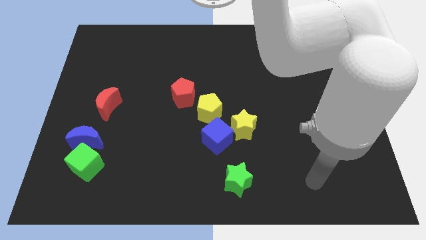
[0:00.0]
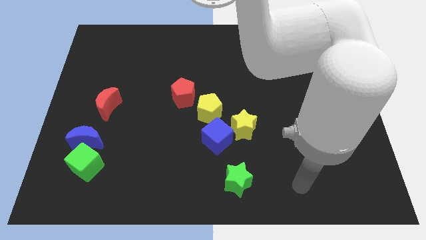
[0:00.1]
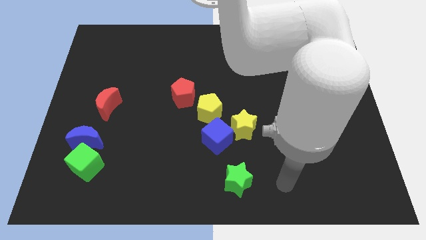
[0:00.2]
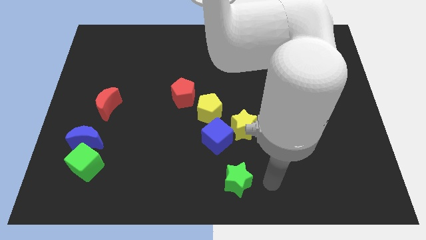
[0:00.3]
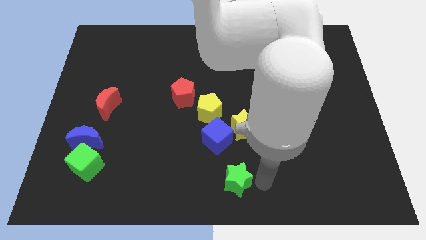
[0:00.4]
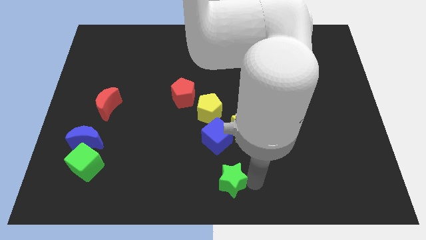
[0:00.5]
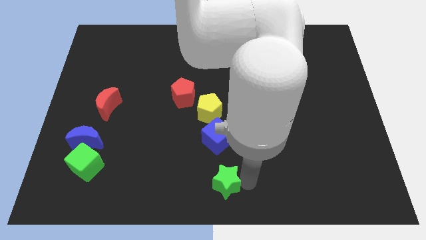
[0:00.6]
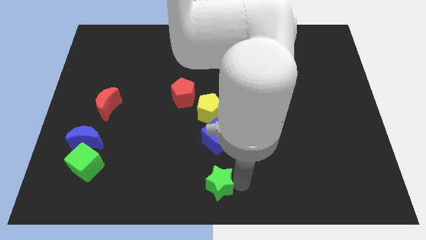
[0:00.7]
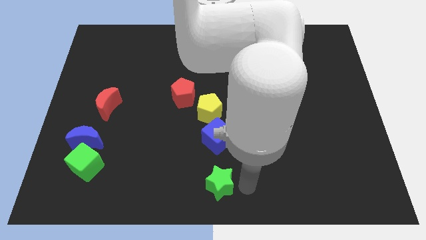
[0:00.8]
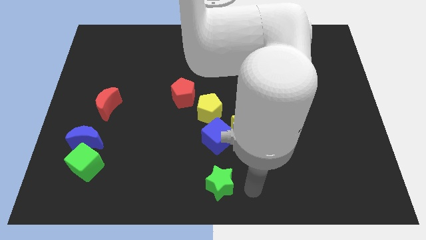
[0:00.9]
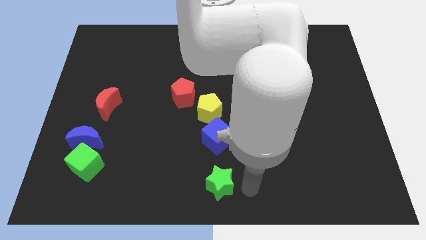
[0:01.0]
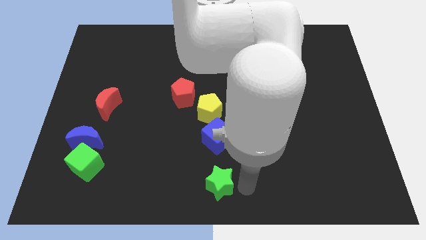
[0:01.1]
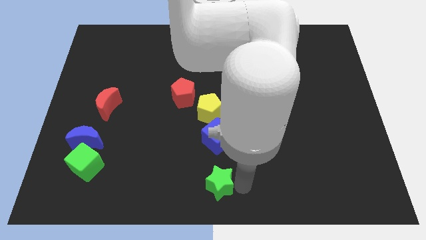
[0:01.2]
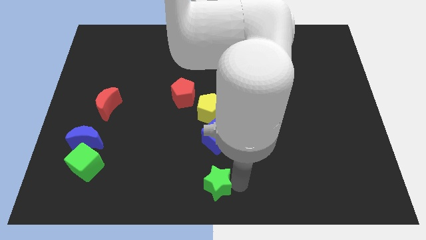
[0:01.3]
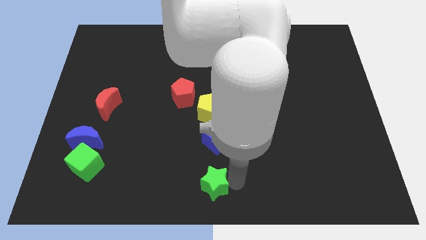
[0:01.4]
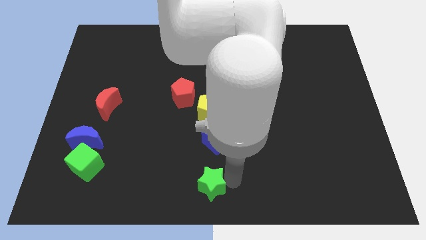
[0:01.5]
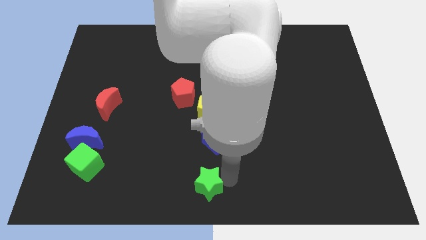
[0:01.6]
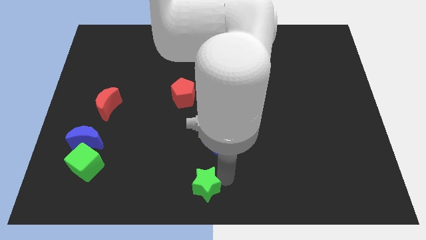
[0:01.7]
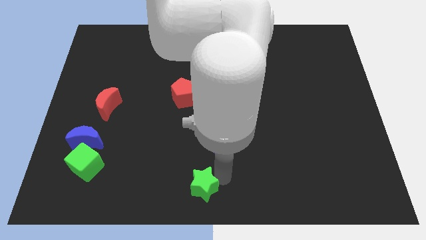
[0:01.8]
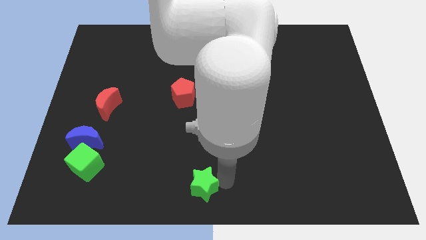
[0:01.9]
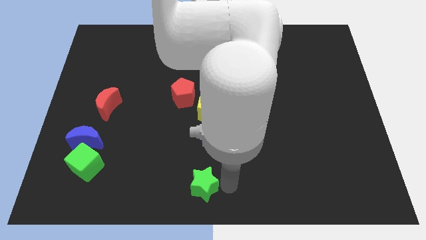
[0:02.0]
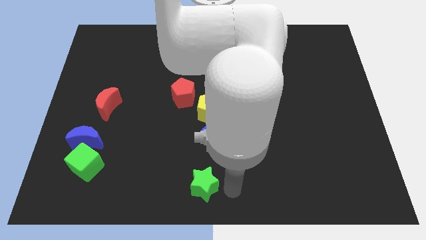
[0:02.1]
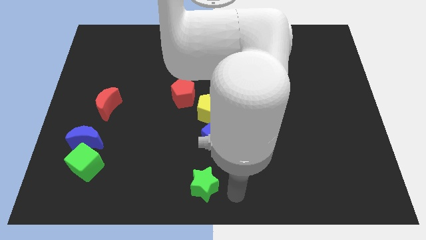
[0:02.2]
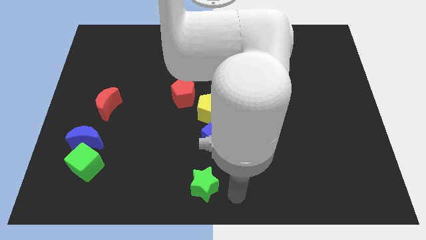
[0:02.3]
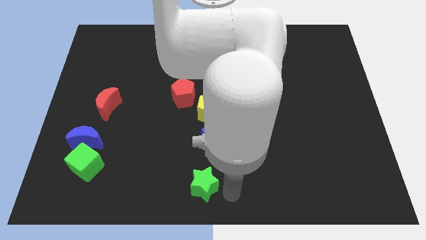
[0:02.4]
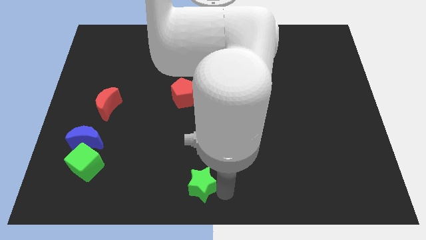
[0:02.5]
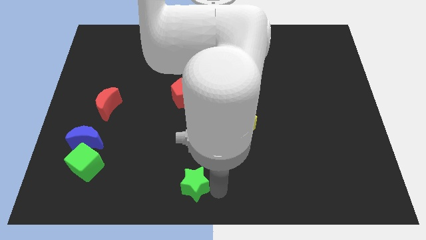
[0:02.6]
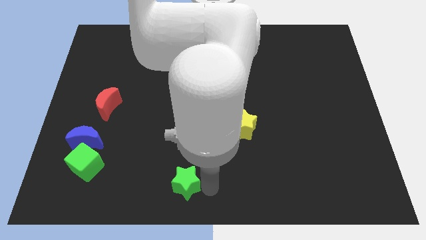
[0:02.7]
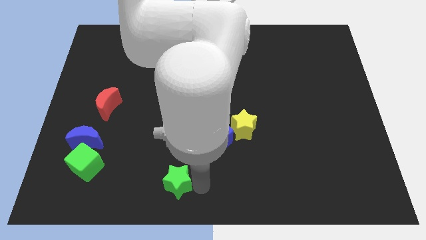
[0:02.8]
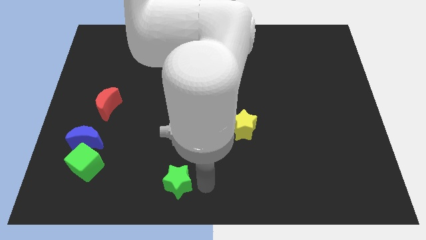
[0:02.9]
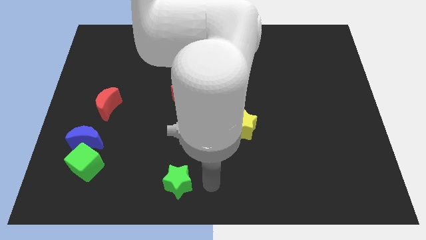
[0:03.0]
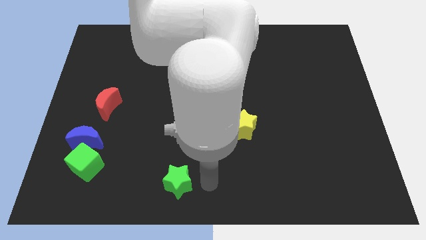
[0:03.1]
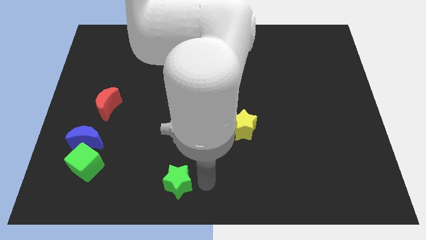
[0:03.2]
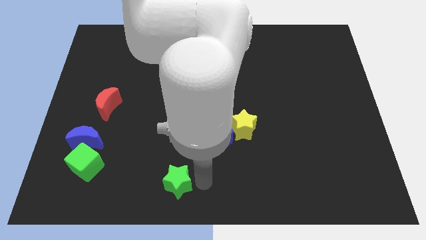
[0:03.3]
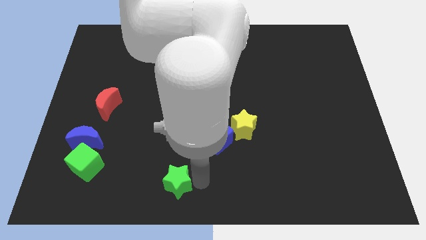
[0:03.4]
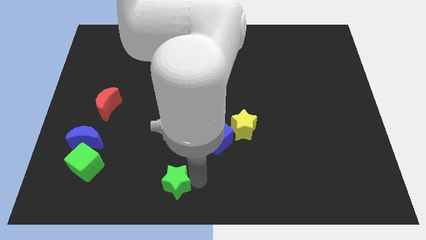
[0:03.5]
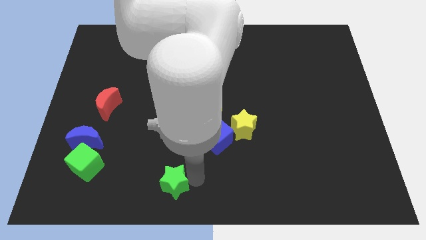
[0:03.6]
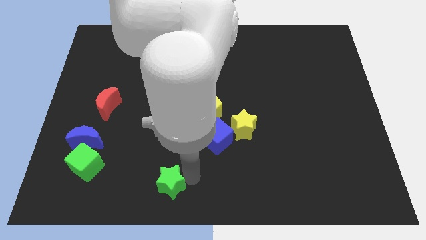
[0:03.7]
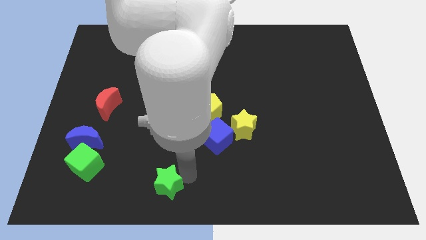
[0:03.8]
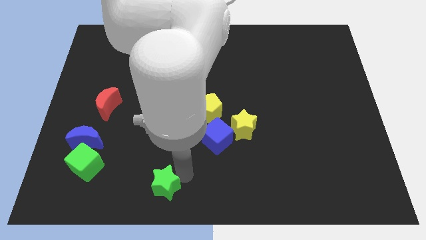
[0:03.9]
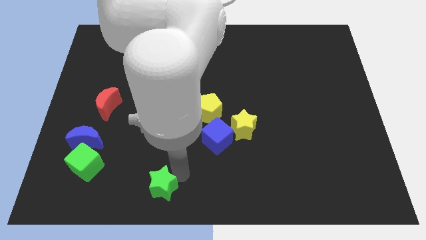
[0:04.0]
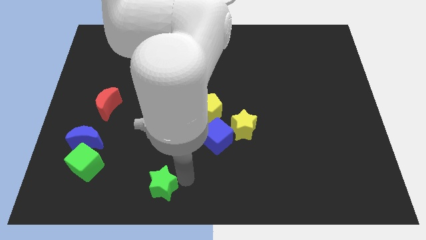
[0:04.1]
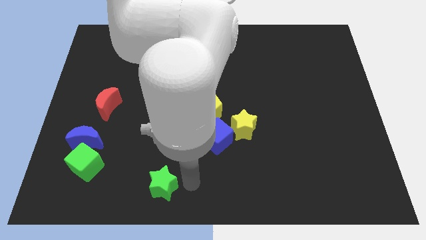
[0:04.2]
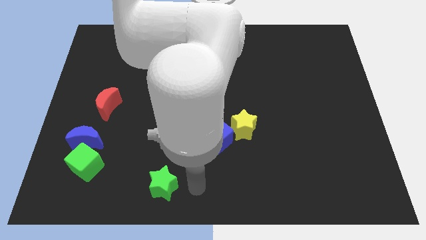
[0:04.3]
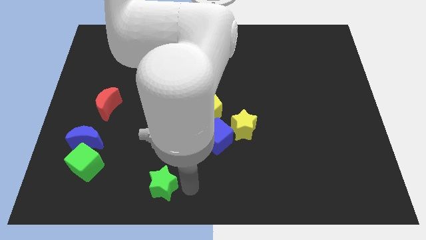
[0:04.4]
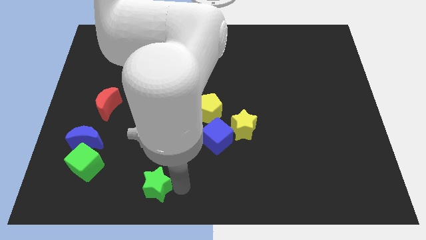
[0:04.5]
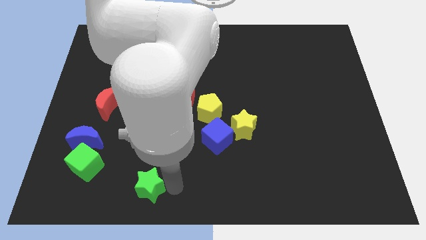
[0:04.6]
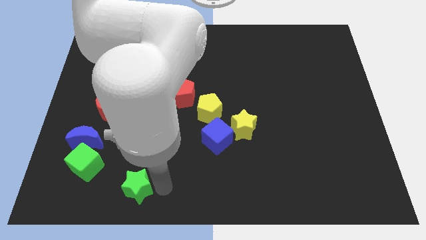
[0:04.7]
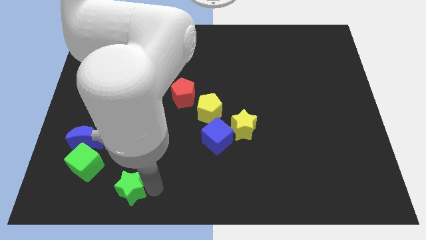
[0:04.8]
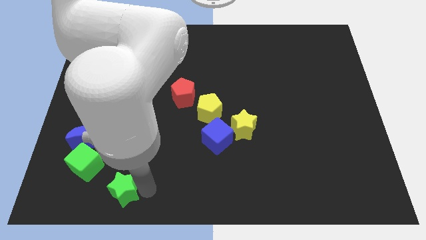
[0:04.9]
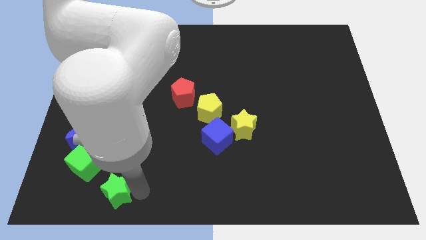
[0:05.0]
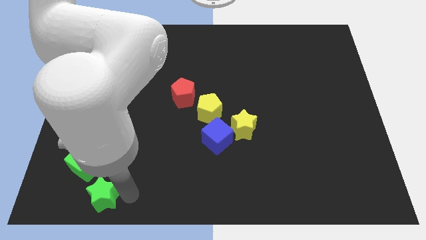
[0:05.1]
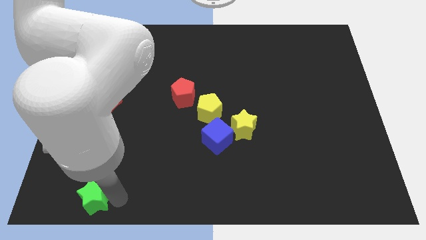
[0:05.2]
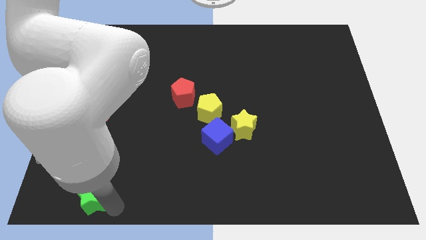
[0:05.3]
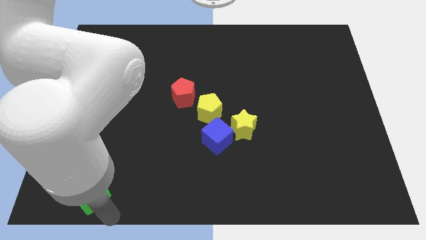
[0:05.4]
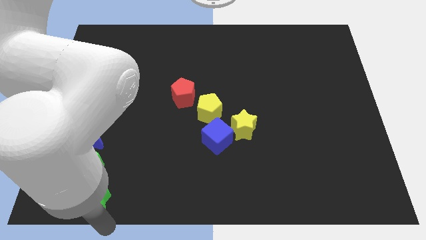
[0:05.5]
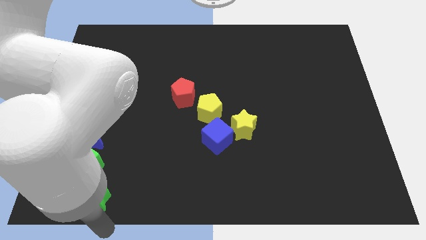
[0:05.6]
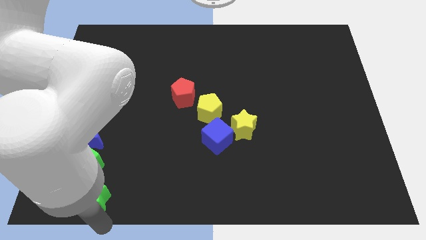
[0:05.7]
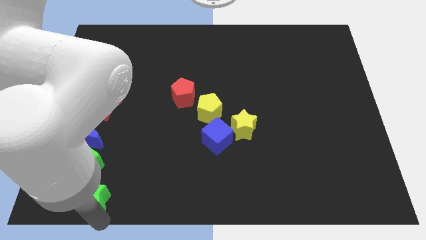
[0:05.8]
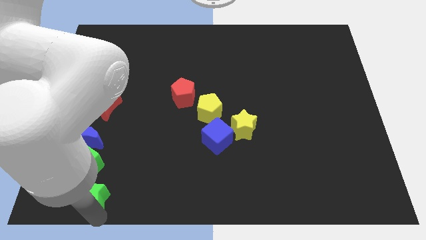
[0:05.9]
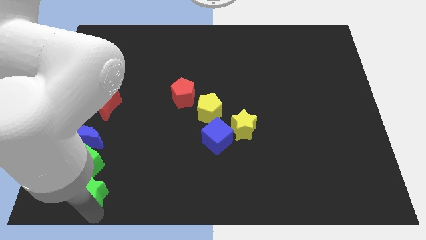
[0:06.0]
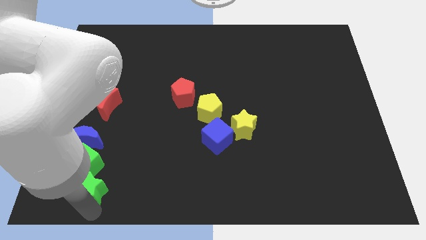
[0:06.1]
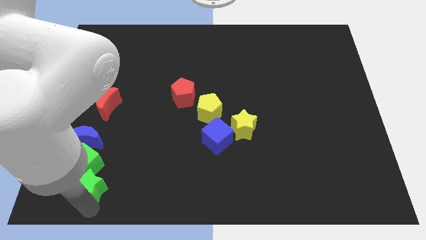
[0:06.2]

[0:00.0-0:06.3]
move the green star to the green cube

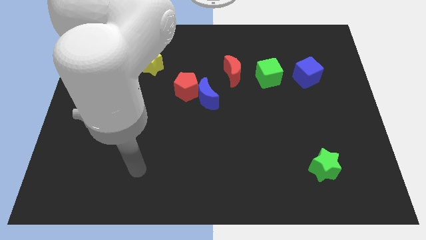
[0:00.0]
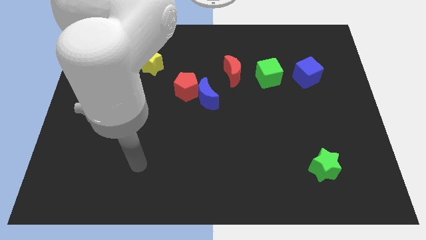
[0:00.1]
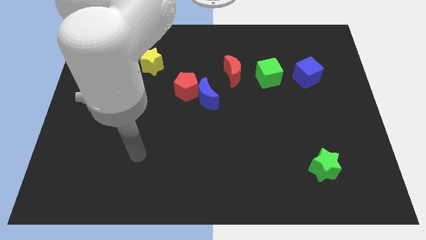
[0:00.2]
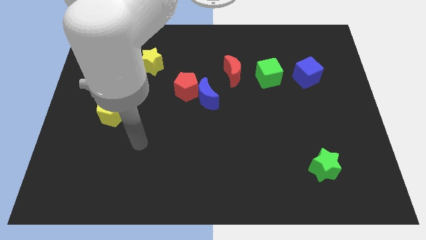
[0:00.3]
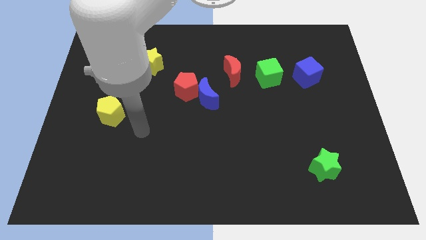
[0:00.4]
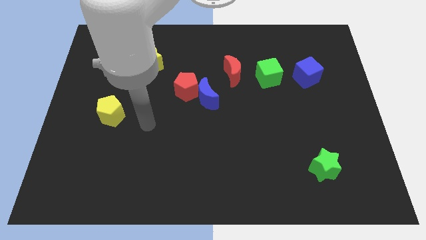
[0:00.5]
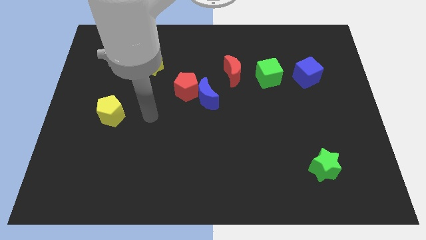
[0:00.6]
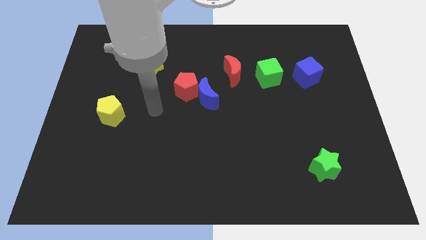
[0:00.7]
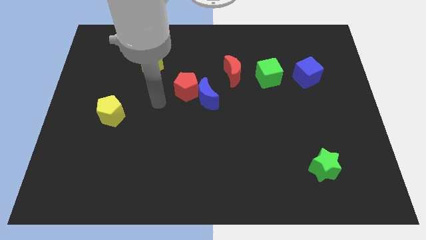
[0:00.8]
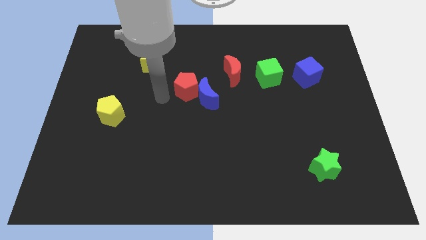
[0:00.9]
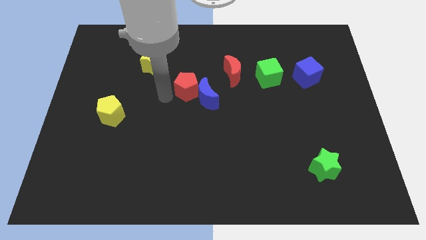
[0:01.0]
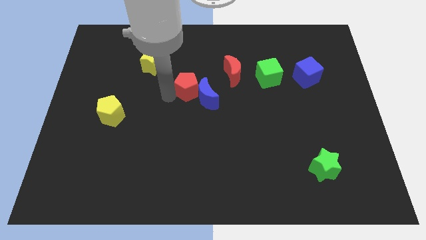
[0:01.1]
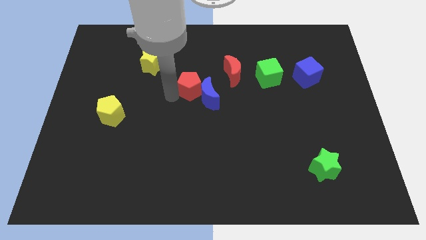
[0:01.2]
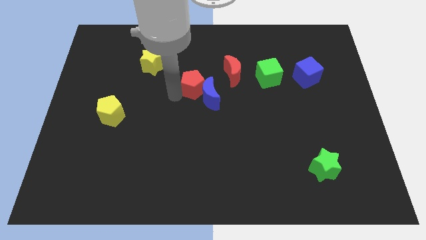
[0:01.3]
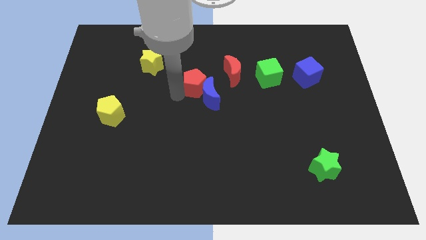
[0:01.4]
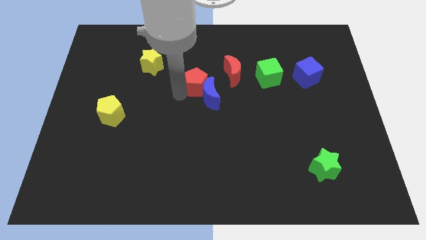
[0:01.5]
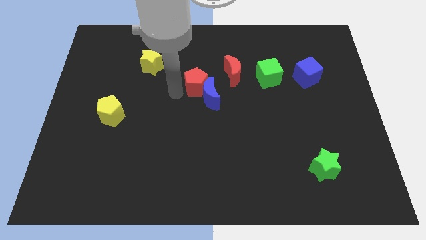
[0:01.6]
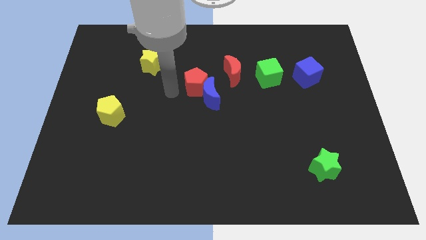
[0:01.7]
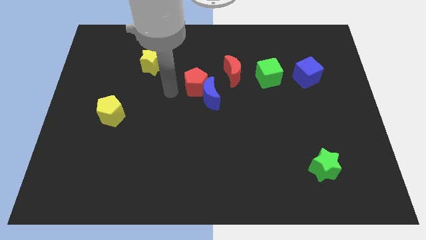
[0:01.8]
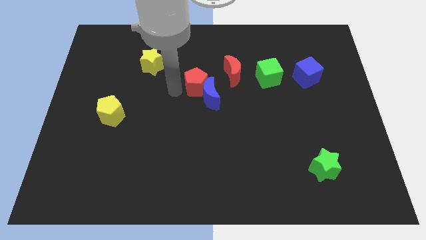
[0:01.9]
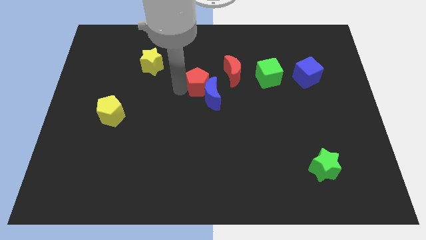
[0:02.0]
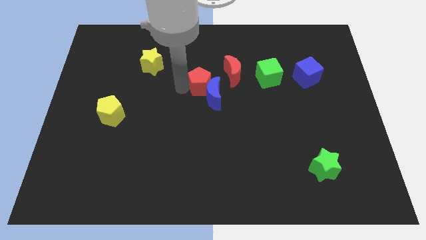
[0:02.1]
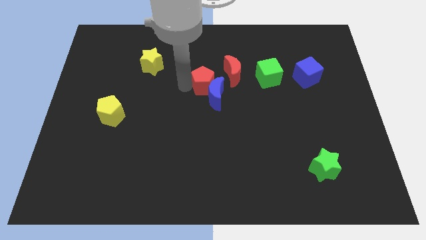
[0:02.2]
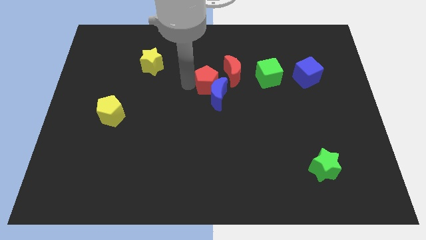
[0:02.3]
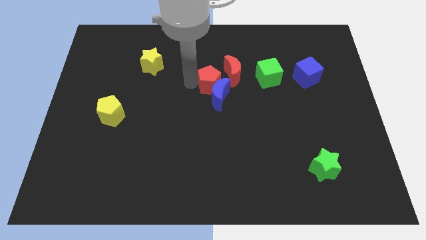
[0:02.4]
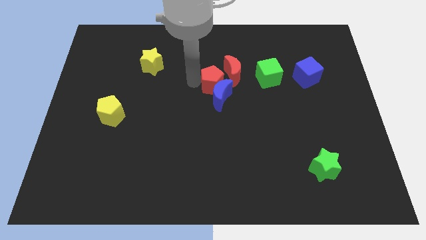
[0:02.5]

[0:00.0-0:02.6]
move the red pentagon towards the red moon
